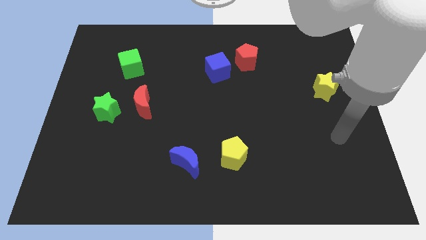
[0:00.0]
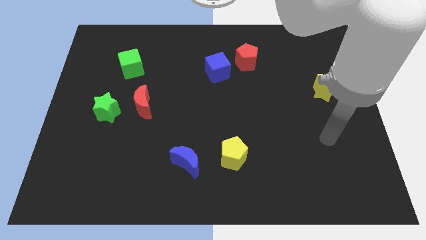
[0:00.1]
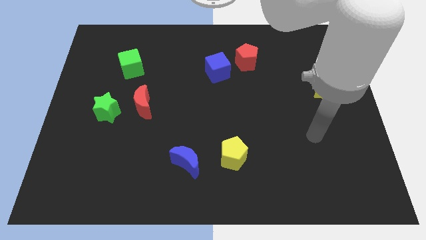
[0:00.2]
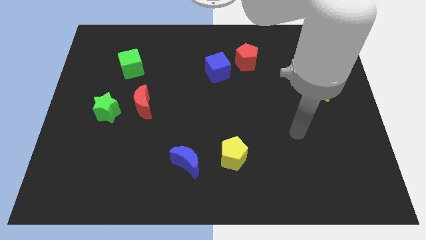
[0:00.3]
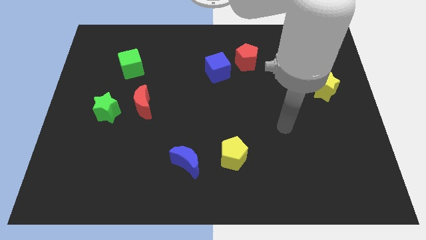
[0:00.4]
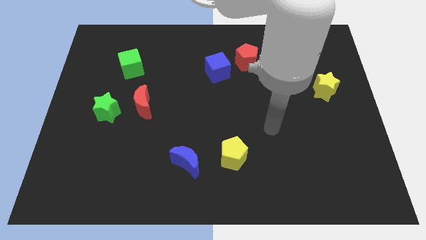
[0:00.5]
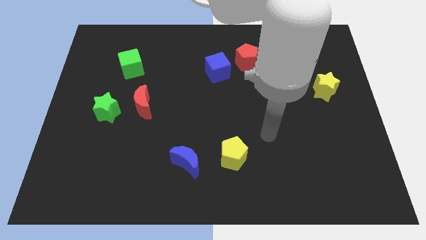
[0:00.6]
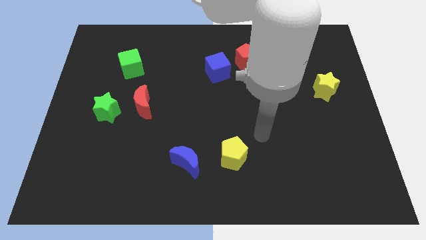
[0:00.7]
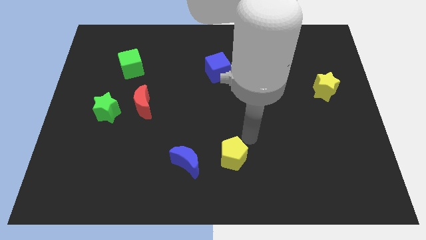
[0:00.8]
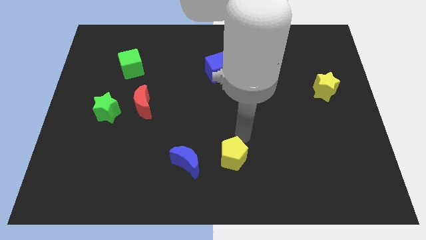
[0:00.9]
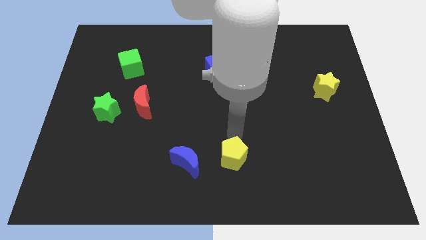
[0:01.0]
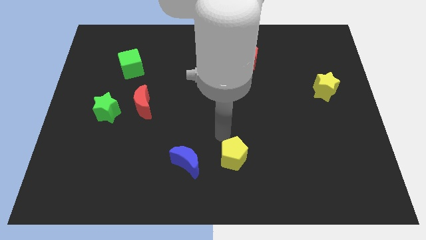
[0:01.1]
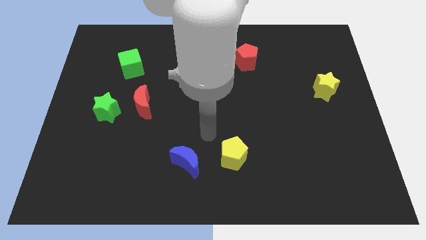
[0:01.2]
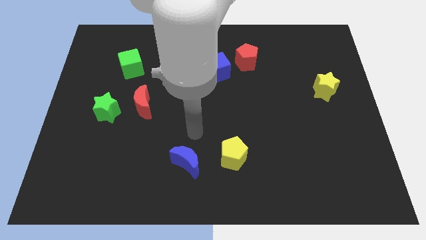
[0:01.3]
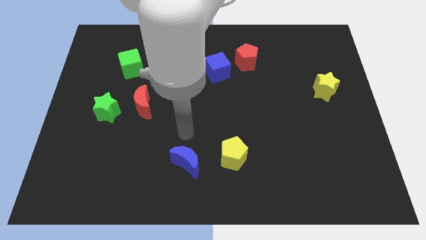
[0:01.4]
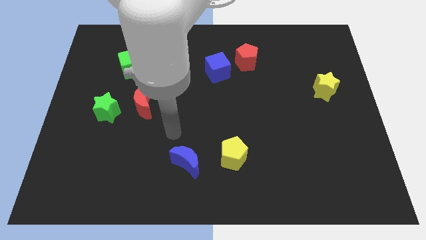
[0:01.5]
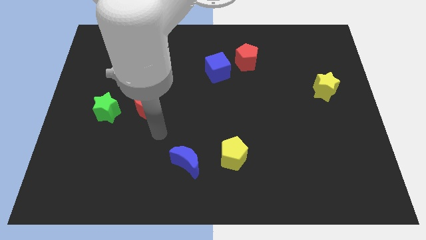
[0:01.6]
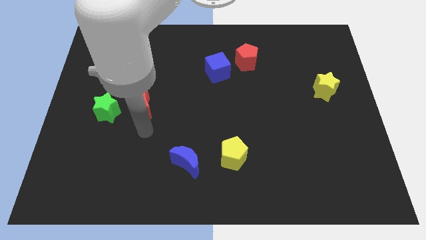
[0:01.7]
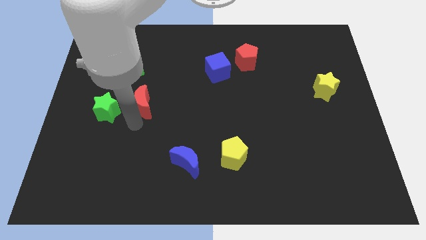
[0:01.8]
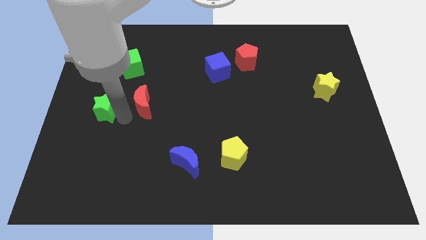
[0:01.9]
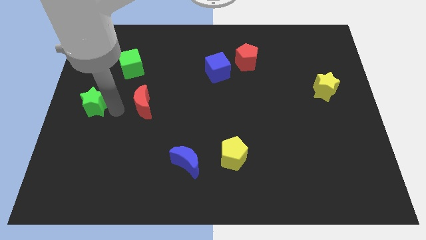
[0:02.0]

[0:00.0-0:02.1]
separate the red moon from the green star

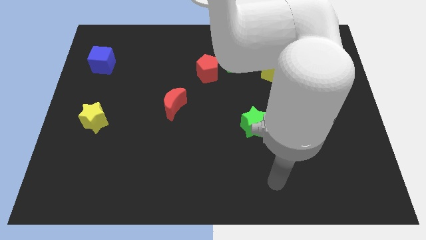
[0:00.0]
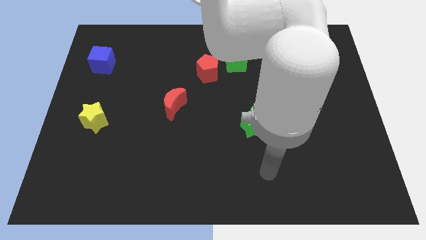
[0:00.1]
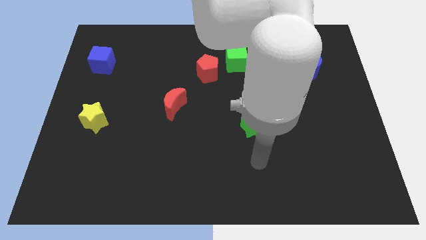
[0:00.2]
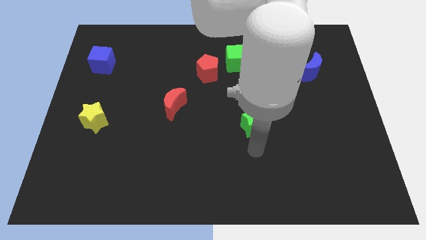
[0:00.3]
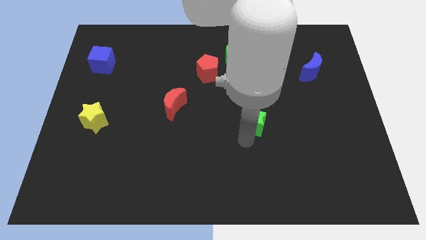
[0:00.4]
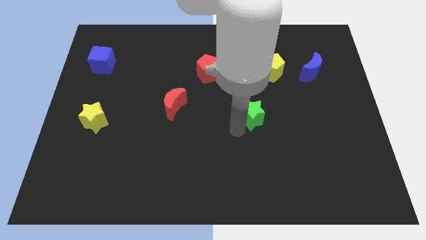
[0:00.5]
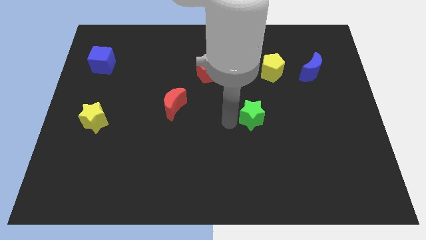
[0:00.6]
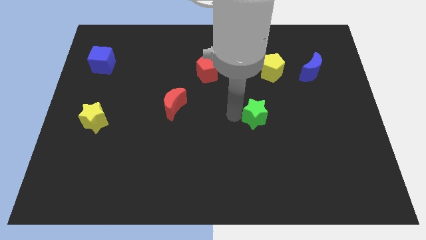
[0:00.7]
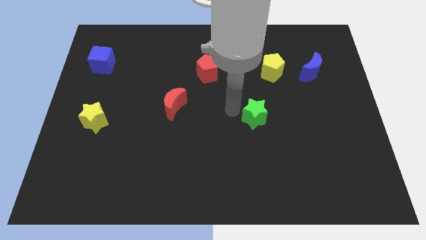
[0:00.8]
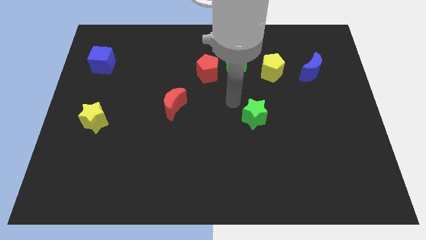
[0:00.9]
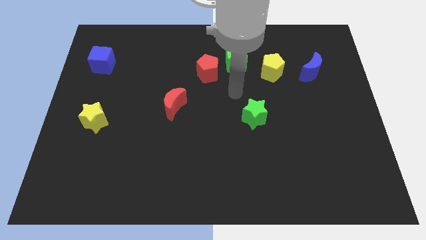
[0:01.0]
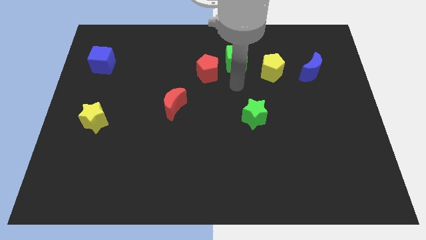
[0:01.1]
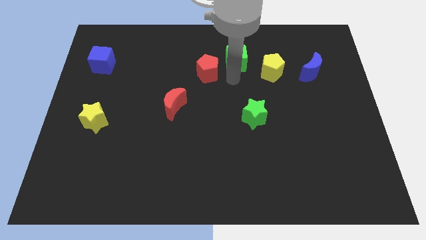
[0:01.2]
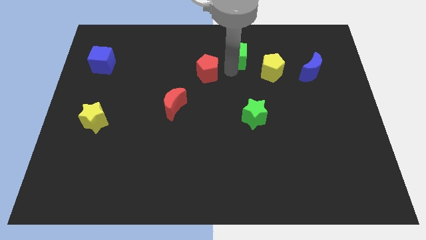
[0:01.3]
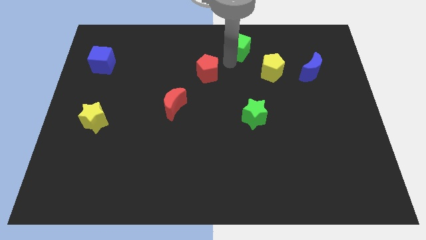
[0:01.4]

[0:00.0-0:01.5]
separate the red pentagon from the green cube

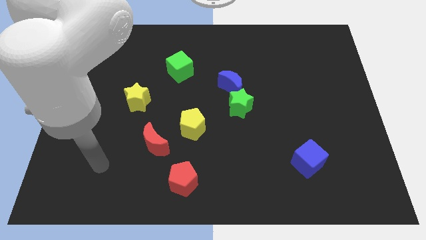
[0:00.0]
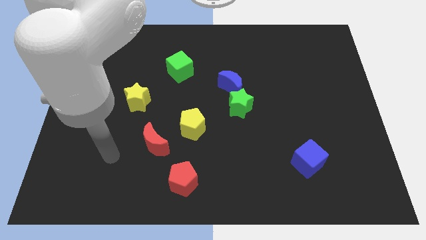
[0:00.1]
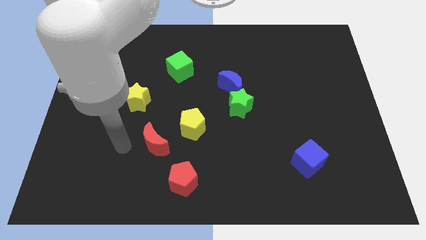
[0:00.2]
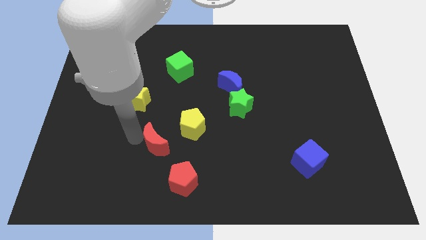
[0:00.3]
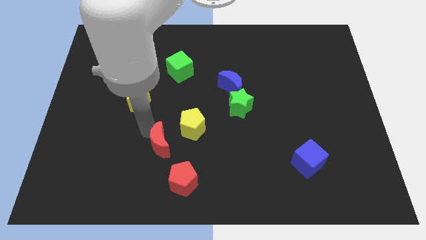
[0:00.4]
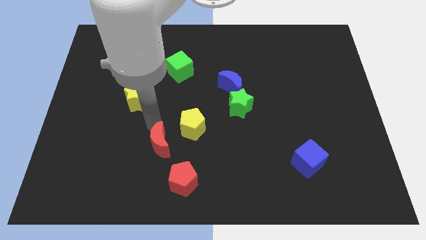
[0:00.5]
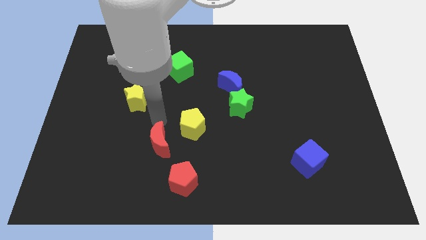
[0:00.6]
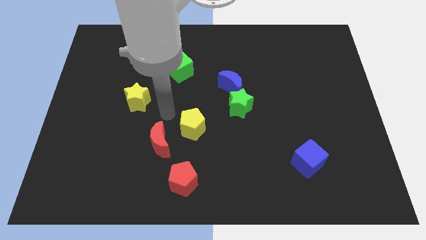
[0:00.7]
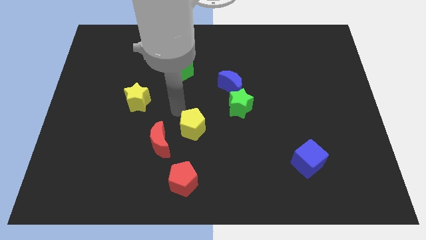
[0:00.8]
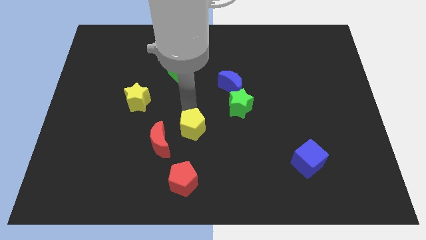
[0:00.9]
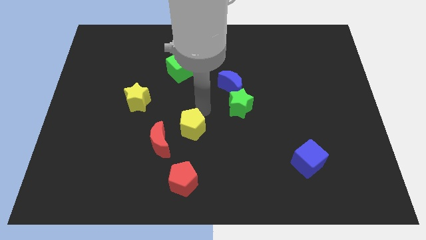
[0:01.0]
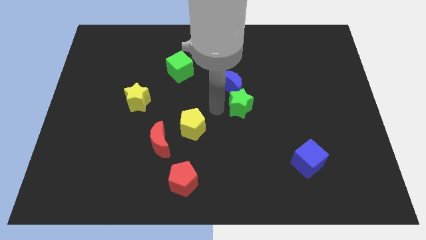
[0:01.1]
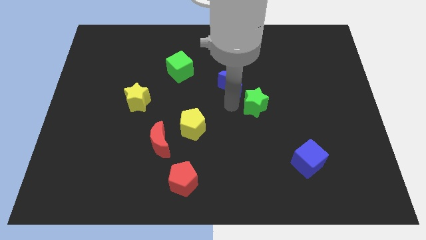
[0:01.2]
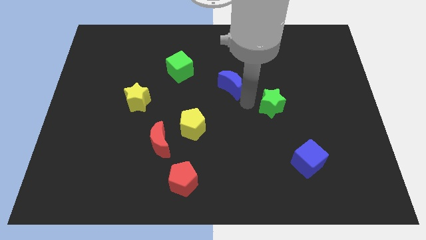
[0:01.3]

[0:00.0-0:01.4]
separate the blue moon from the green star

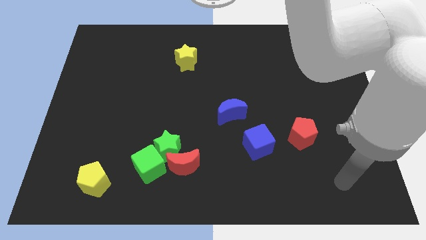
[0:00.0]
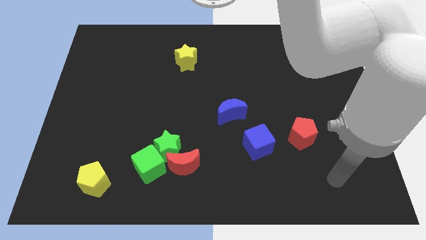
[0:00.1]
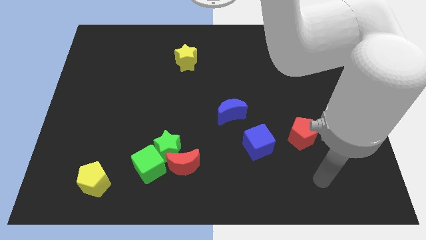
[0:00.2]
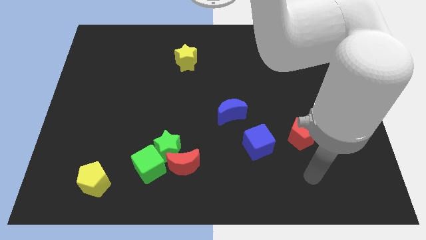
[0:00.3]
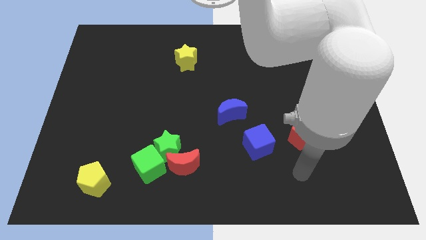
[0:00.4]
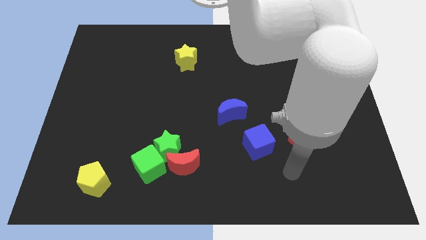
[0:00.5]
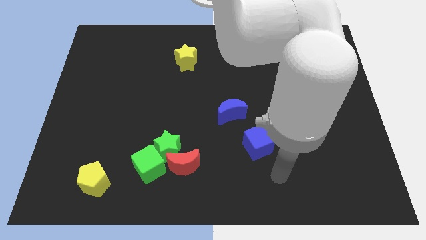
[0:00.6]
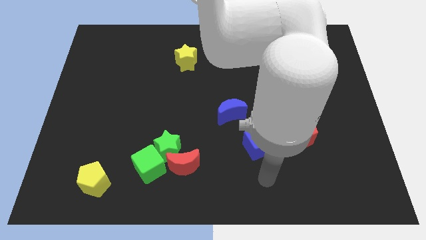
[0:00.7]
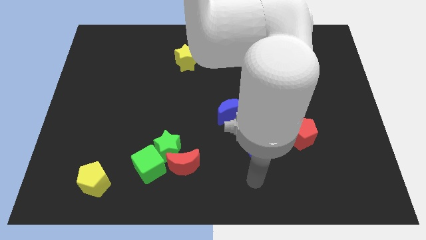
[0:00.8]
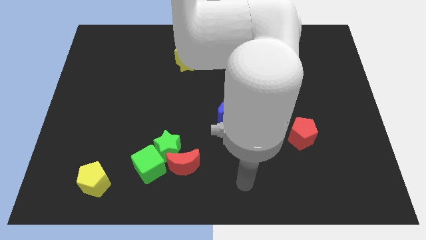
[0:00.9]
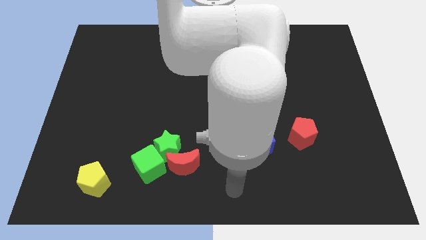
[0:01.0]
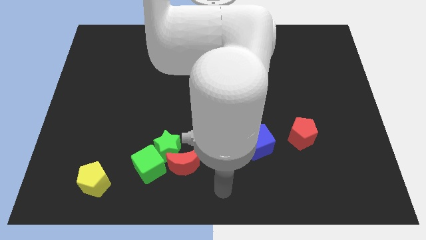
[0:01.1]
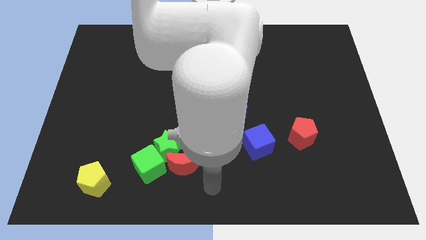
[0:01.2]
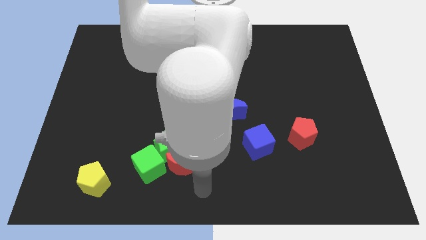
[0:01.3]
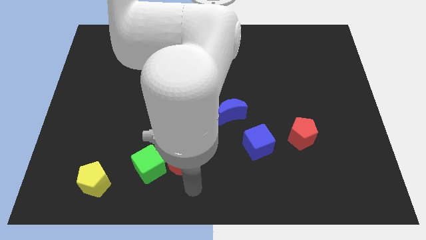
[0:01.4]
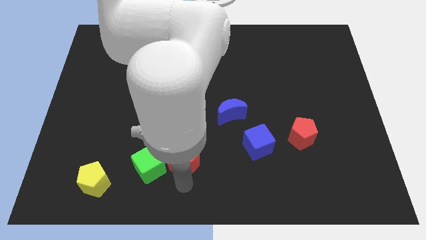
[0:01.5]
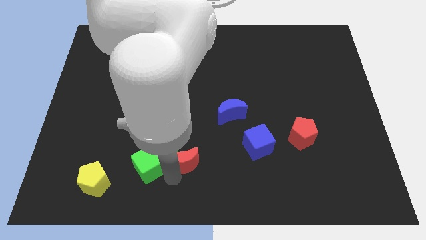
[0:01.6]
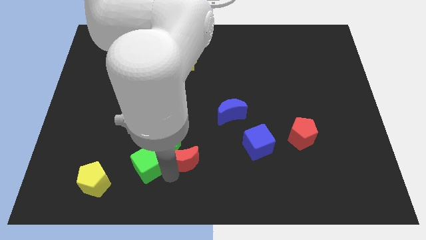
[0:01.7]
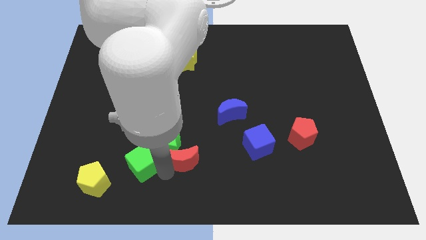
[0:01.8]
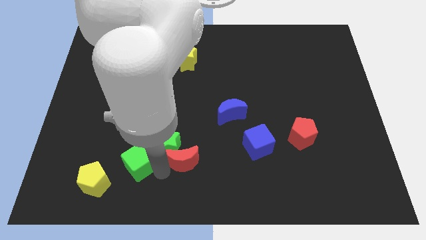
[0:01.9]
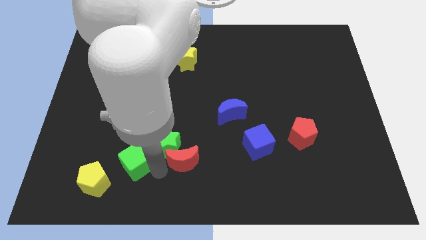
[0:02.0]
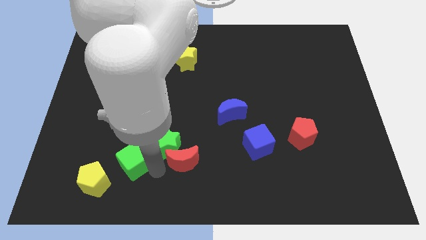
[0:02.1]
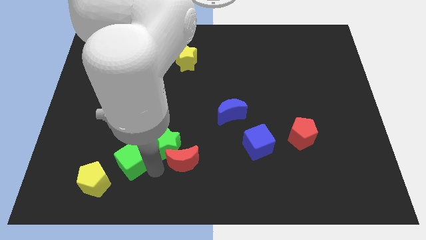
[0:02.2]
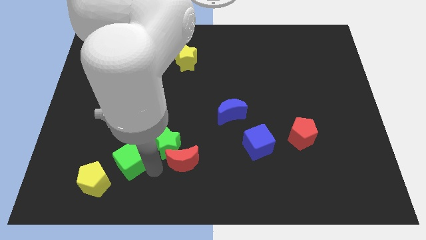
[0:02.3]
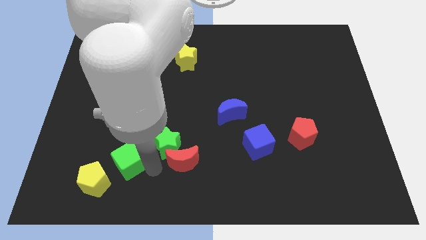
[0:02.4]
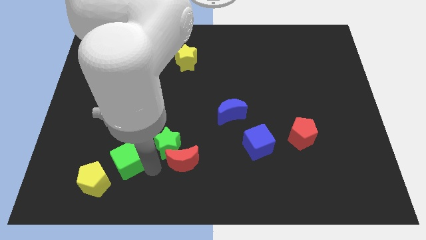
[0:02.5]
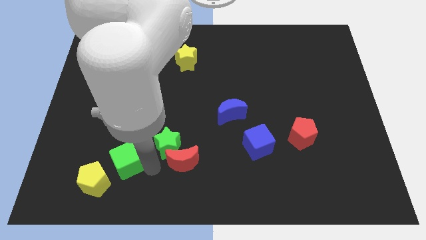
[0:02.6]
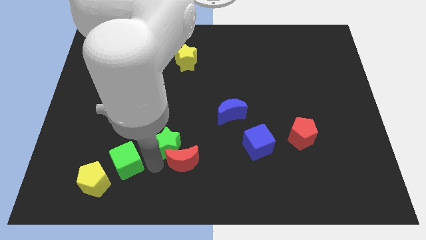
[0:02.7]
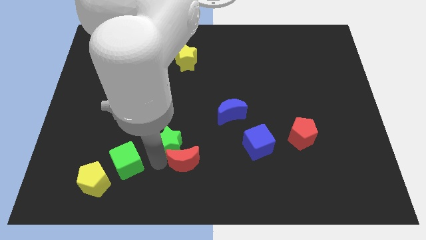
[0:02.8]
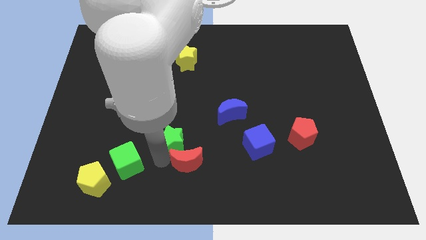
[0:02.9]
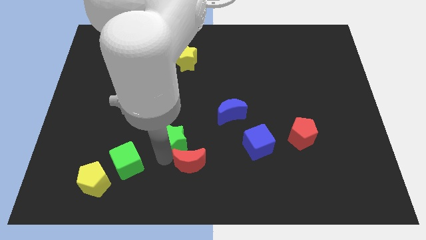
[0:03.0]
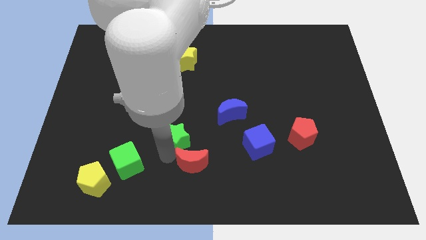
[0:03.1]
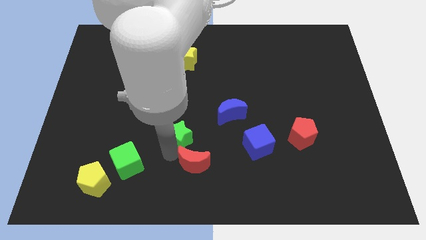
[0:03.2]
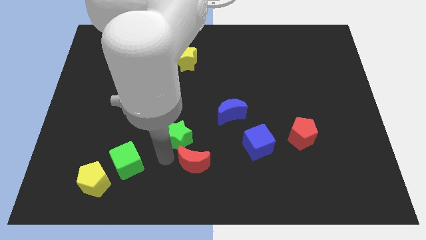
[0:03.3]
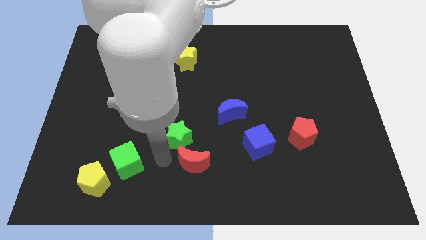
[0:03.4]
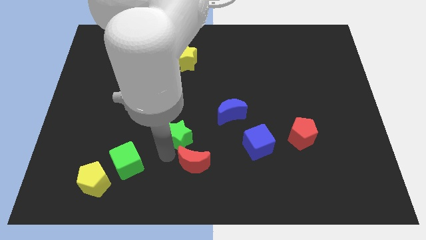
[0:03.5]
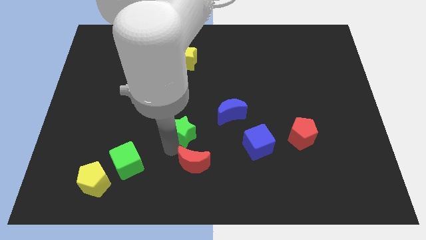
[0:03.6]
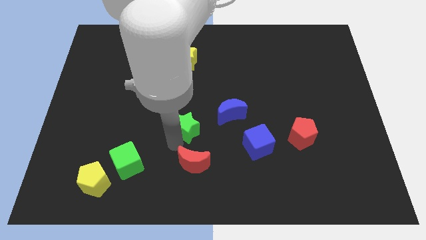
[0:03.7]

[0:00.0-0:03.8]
separate the green star from the red moon and green cube

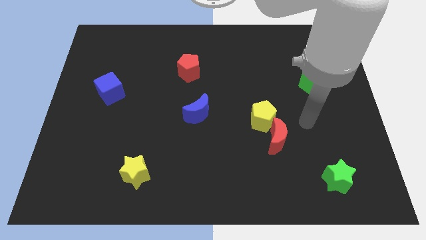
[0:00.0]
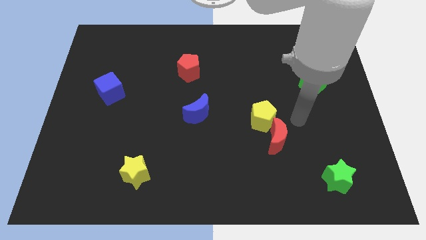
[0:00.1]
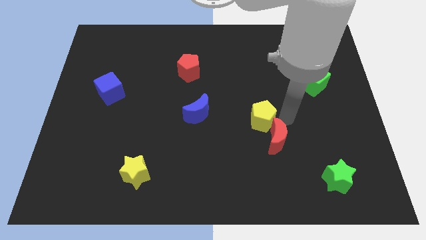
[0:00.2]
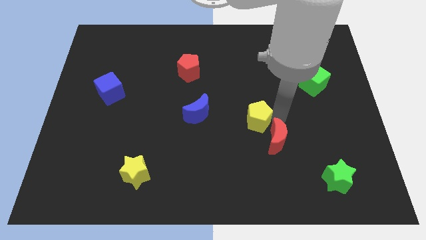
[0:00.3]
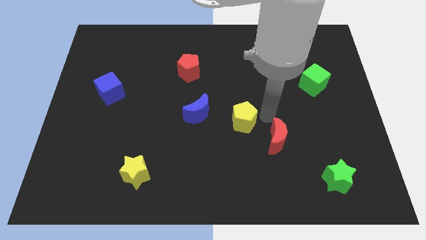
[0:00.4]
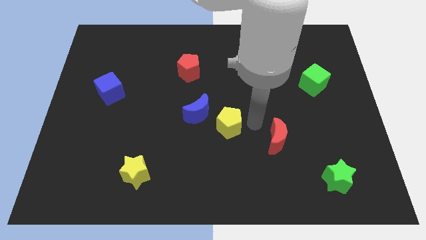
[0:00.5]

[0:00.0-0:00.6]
pull the red moon apart from the yellow pentagon
